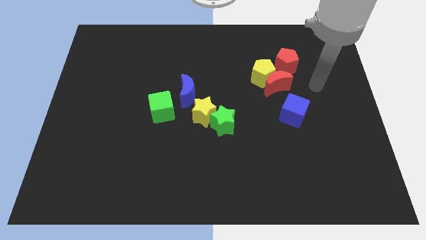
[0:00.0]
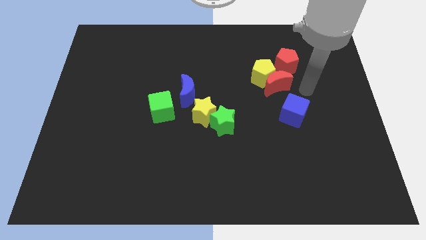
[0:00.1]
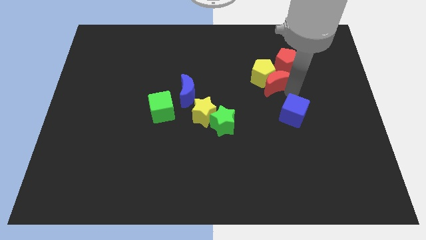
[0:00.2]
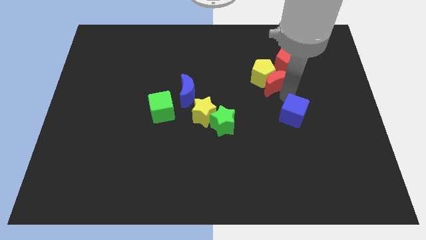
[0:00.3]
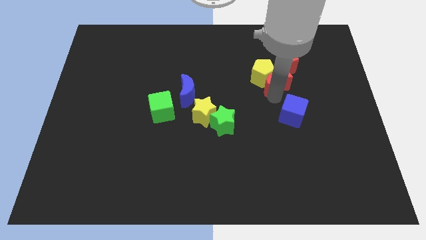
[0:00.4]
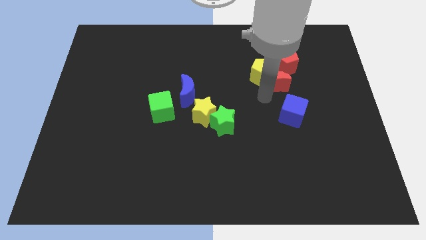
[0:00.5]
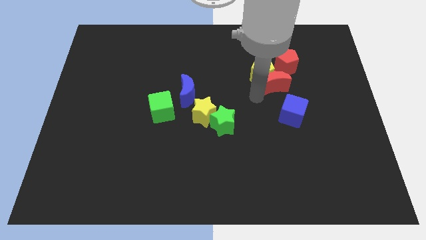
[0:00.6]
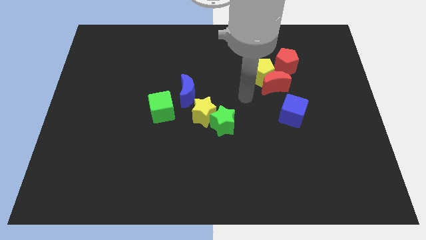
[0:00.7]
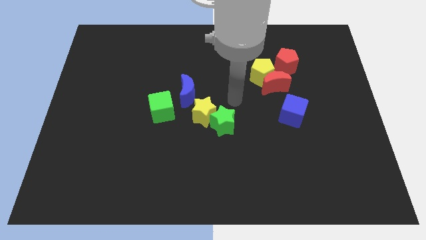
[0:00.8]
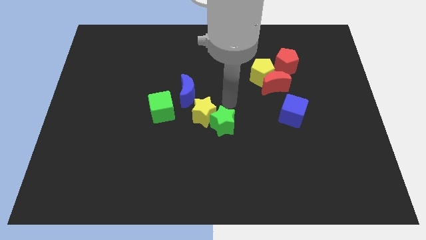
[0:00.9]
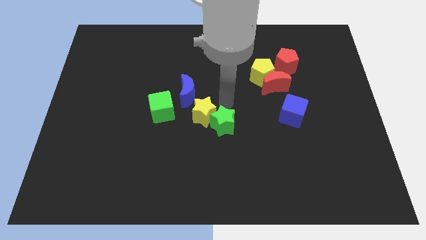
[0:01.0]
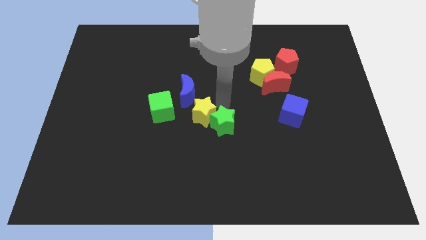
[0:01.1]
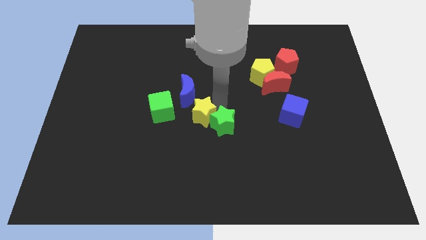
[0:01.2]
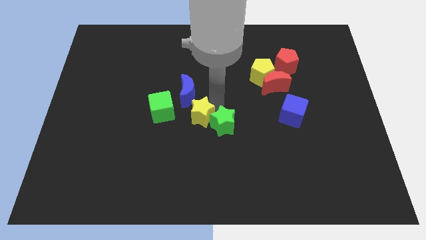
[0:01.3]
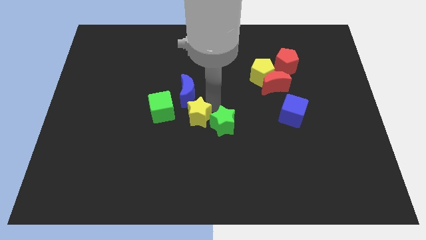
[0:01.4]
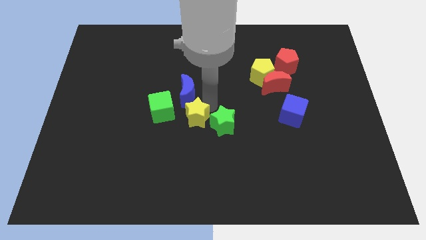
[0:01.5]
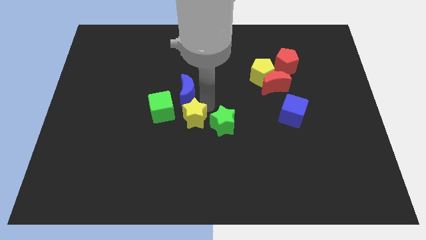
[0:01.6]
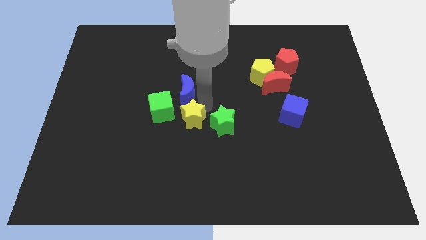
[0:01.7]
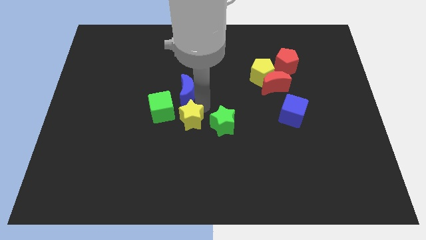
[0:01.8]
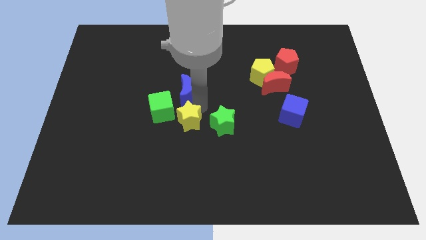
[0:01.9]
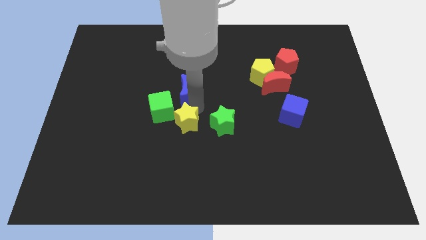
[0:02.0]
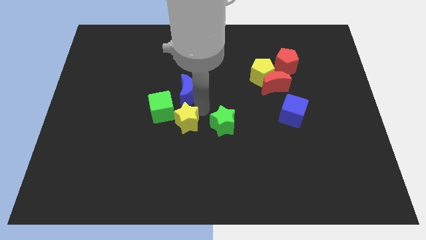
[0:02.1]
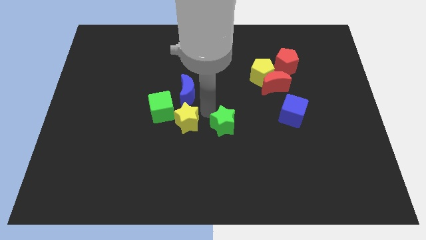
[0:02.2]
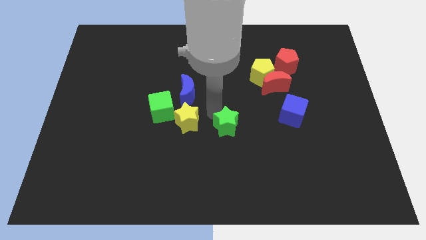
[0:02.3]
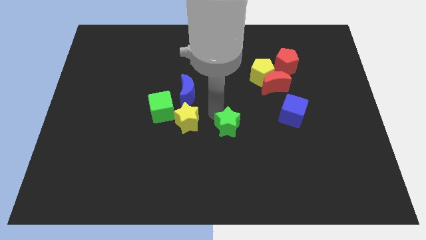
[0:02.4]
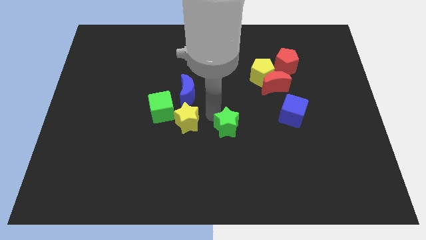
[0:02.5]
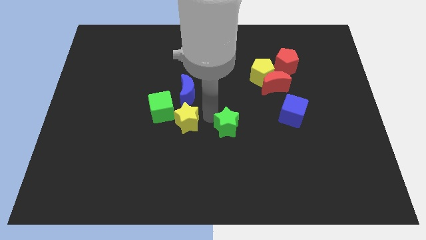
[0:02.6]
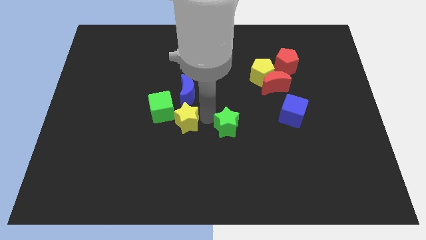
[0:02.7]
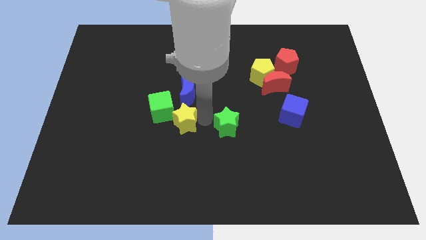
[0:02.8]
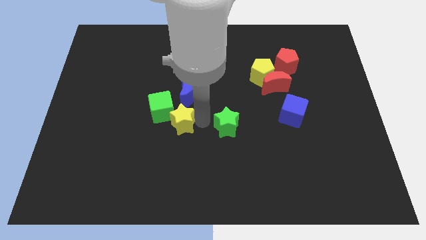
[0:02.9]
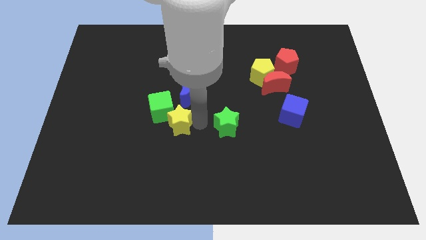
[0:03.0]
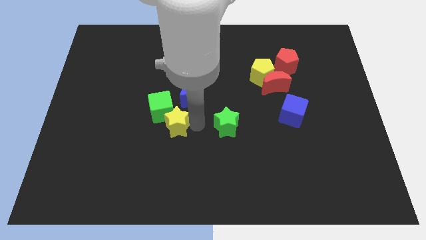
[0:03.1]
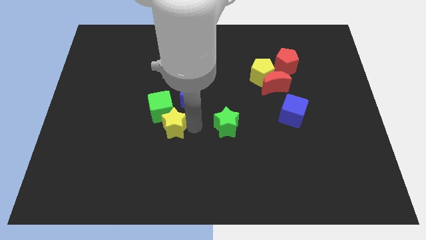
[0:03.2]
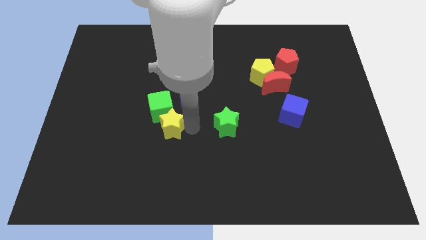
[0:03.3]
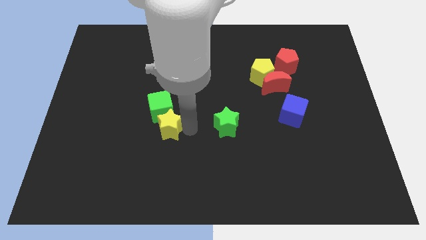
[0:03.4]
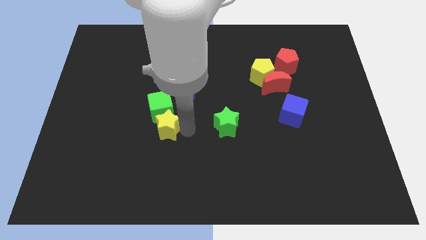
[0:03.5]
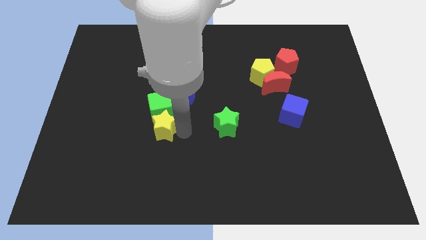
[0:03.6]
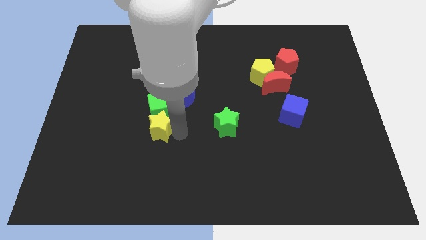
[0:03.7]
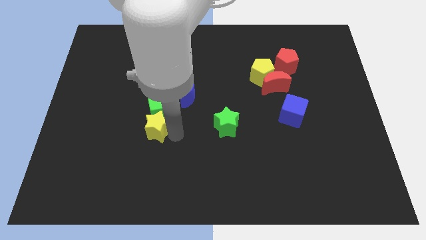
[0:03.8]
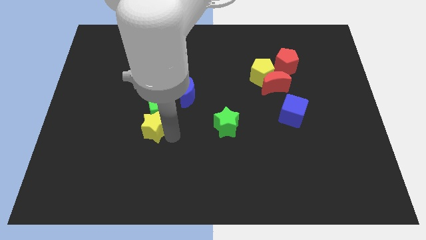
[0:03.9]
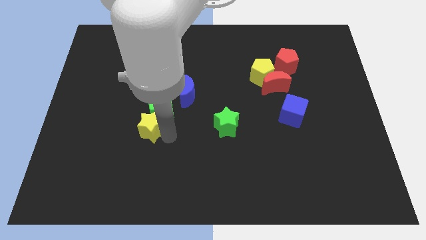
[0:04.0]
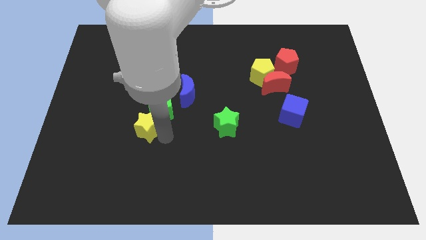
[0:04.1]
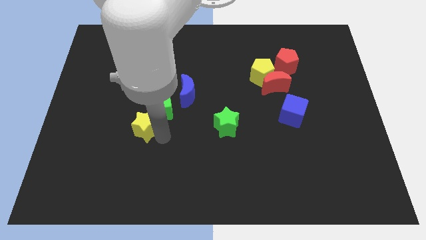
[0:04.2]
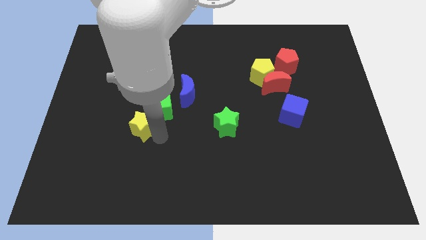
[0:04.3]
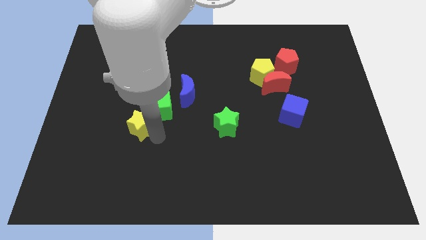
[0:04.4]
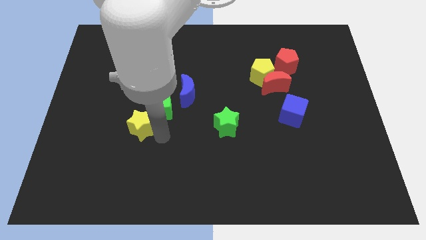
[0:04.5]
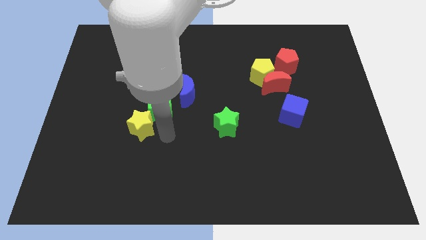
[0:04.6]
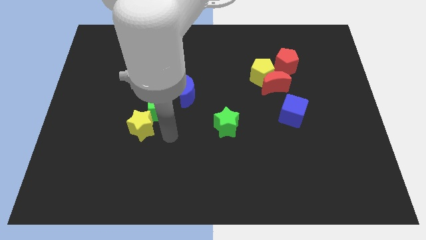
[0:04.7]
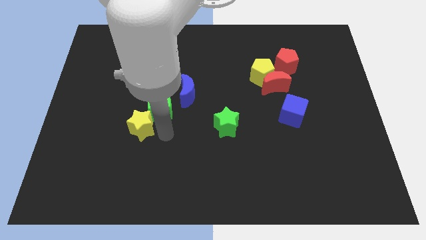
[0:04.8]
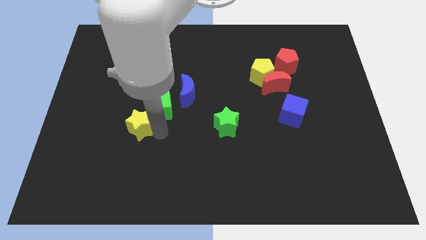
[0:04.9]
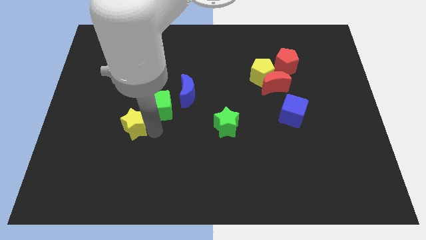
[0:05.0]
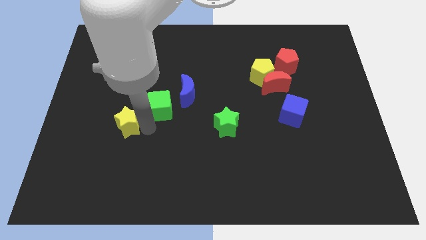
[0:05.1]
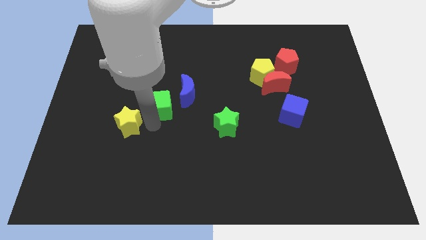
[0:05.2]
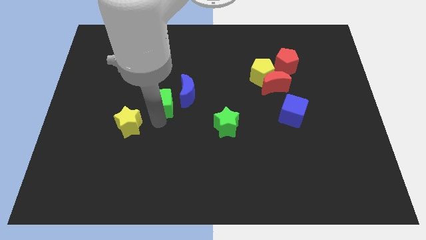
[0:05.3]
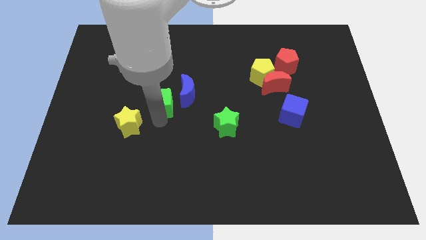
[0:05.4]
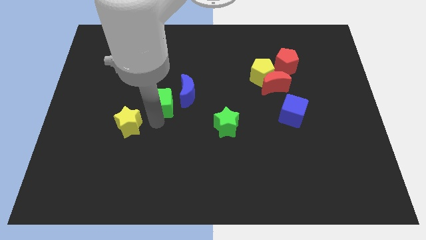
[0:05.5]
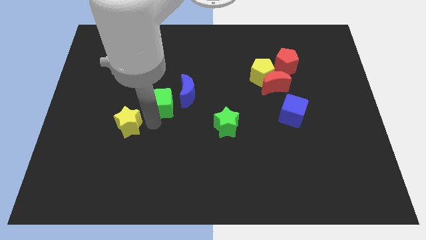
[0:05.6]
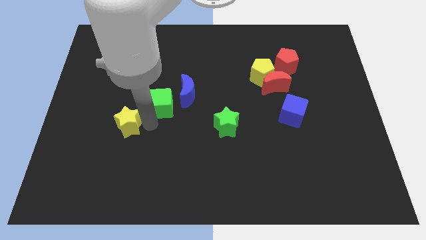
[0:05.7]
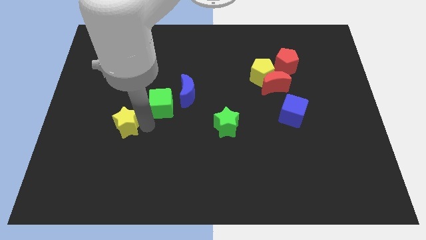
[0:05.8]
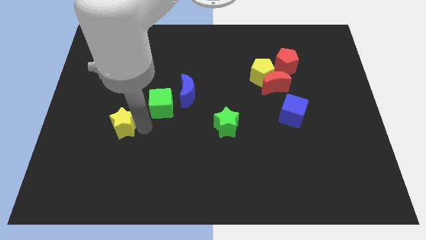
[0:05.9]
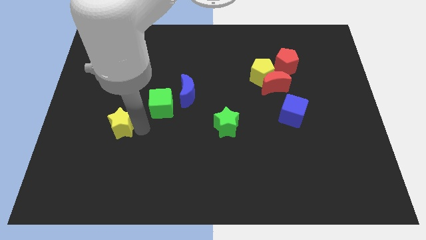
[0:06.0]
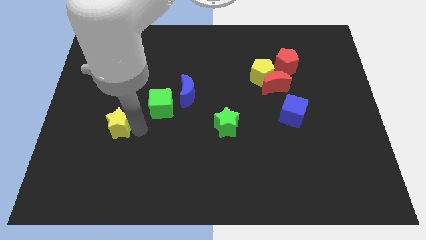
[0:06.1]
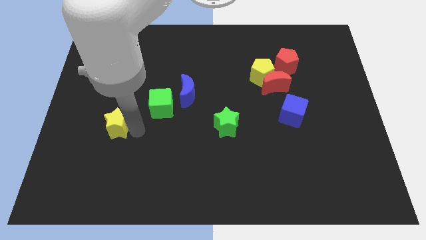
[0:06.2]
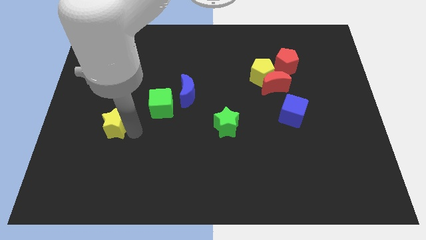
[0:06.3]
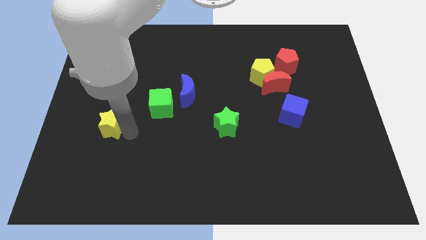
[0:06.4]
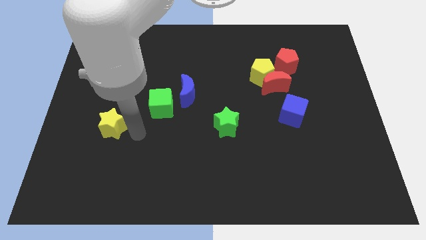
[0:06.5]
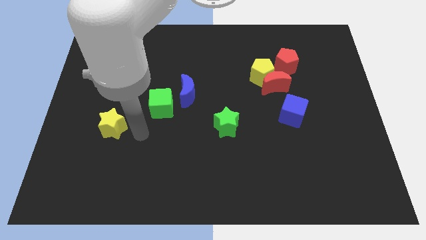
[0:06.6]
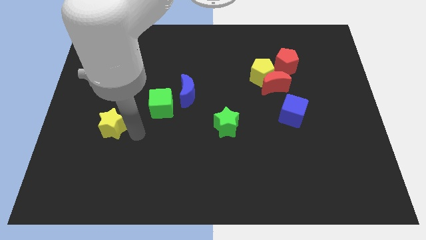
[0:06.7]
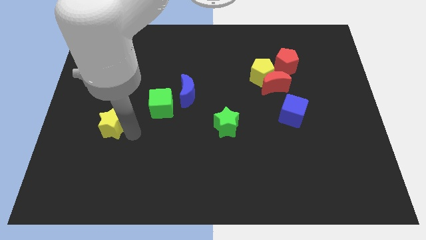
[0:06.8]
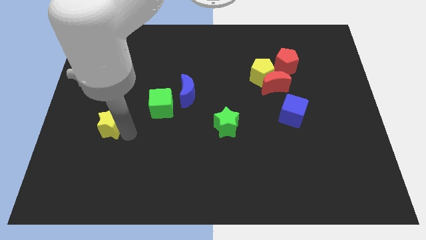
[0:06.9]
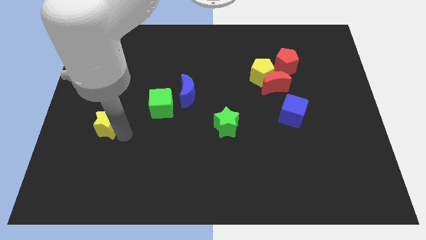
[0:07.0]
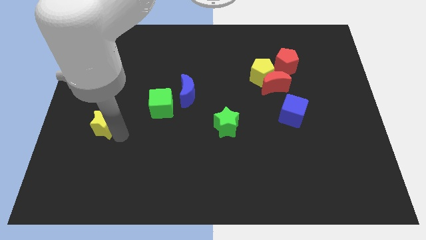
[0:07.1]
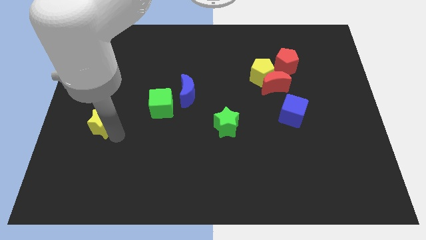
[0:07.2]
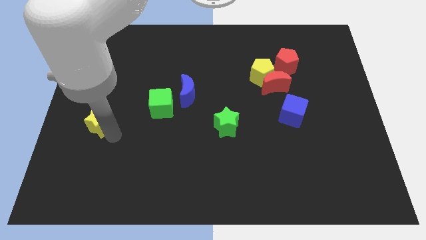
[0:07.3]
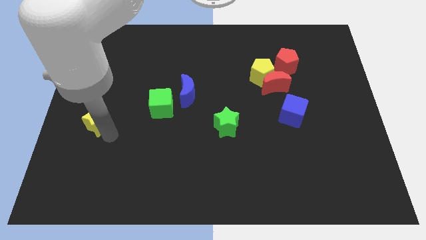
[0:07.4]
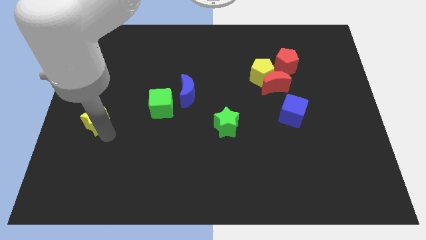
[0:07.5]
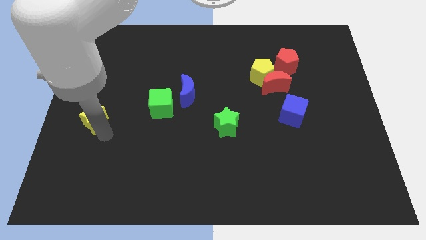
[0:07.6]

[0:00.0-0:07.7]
push the yellow star to the left side of the board

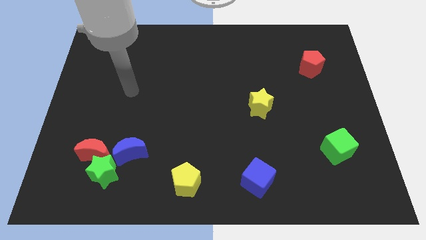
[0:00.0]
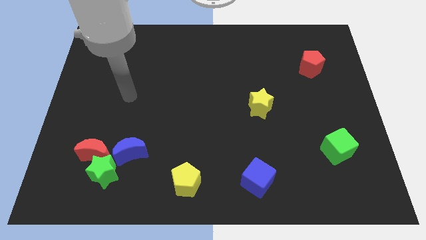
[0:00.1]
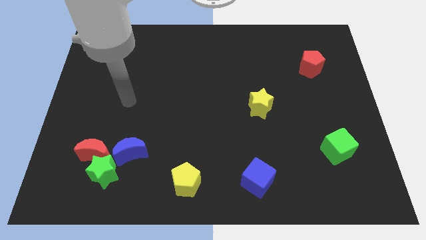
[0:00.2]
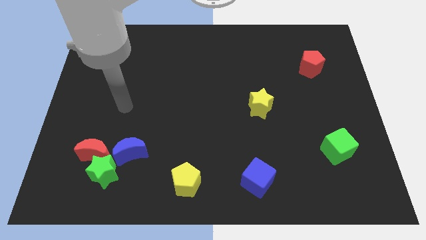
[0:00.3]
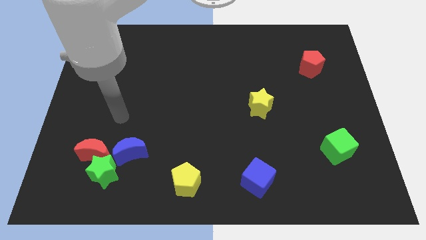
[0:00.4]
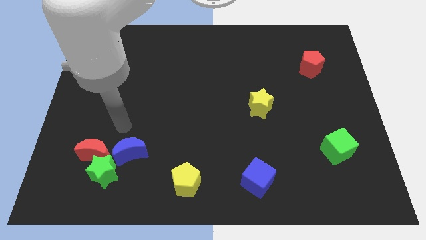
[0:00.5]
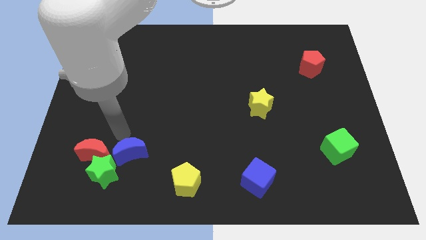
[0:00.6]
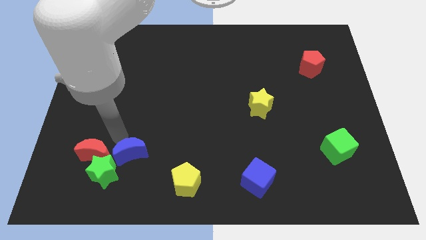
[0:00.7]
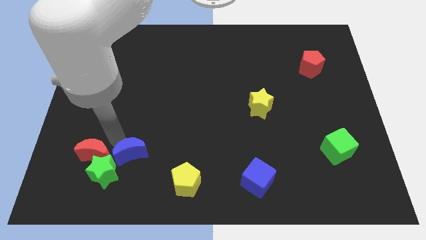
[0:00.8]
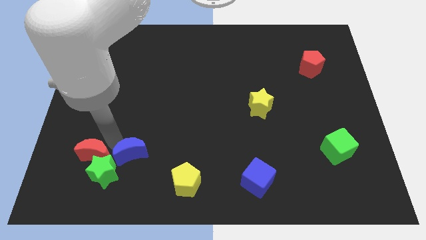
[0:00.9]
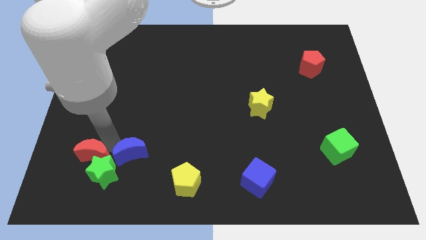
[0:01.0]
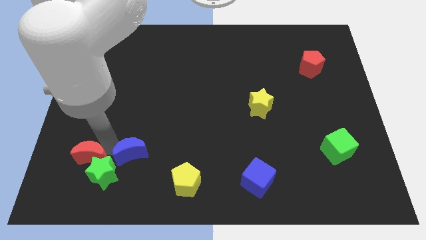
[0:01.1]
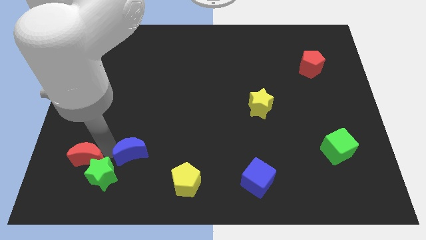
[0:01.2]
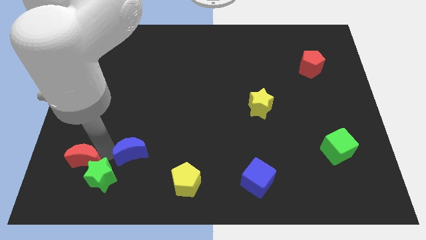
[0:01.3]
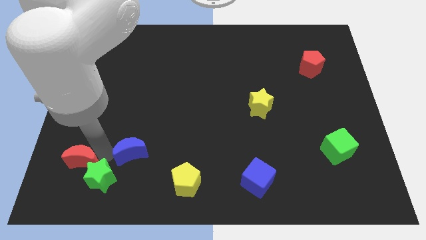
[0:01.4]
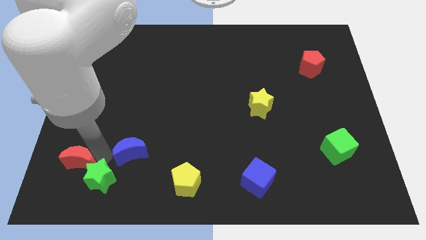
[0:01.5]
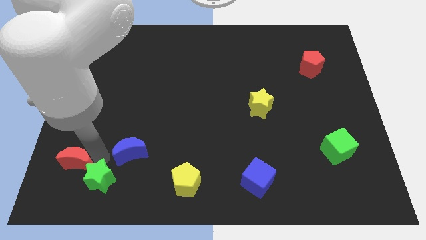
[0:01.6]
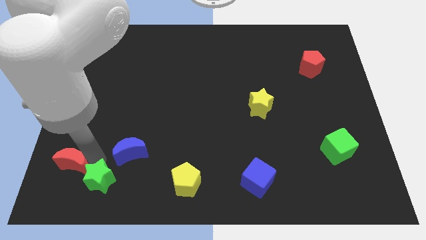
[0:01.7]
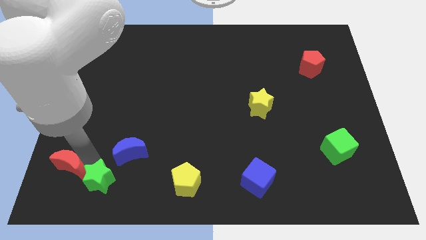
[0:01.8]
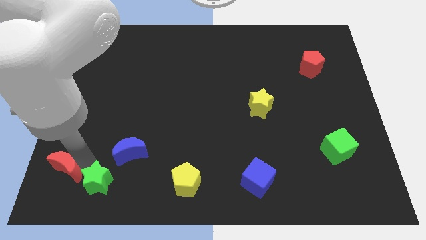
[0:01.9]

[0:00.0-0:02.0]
move the red moon to the bottom left corner
